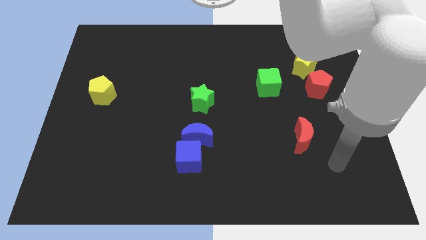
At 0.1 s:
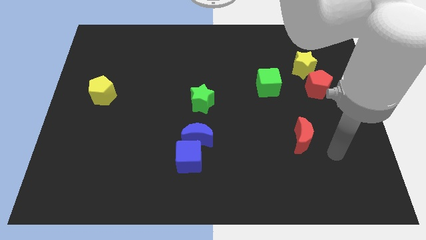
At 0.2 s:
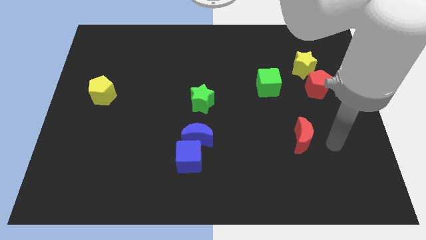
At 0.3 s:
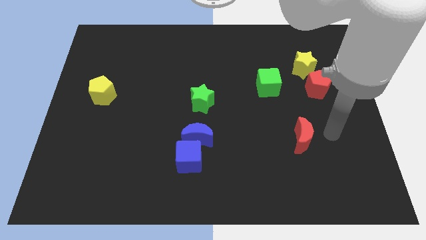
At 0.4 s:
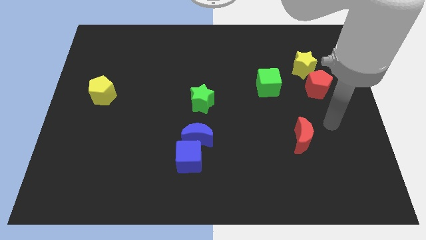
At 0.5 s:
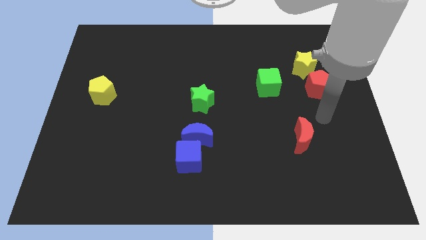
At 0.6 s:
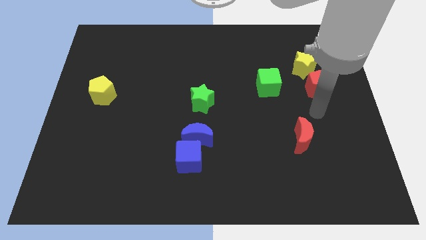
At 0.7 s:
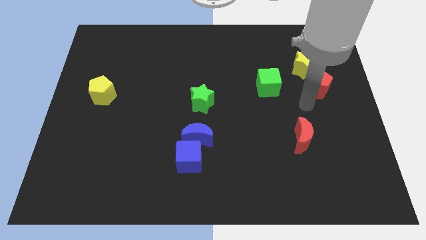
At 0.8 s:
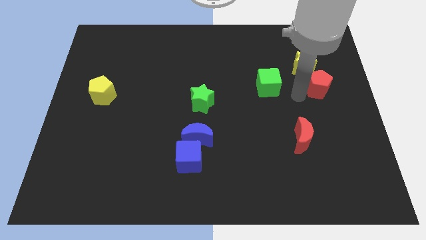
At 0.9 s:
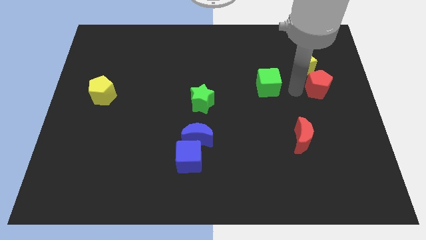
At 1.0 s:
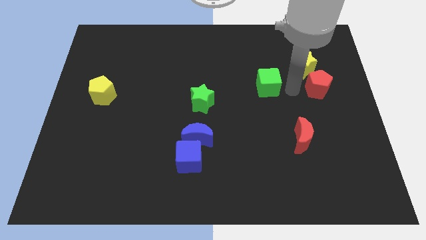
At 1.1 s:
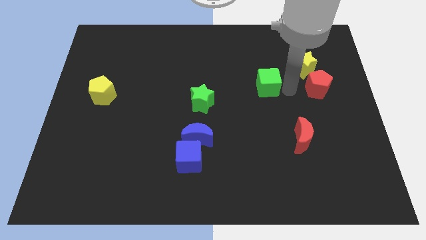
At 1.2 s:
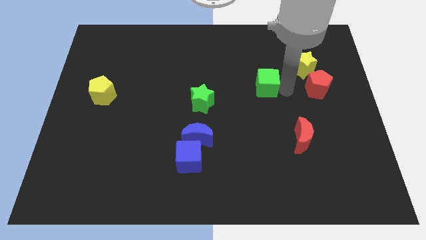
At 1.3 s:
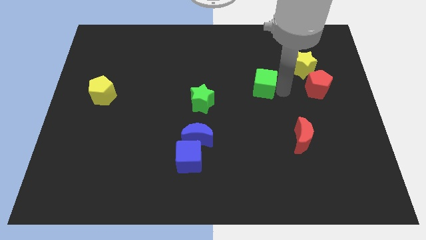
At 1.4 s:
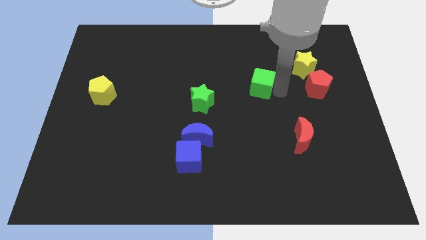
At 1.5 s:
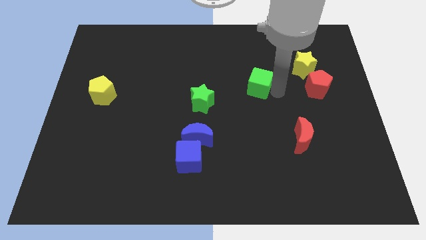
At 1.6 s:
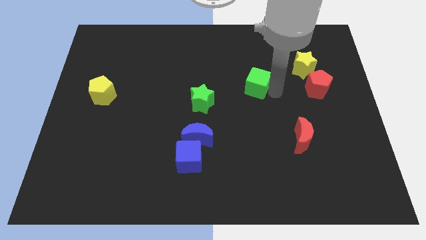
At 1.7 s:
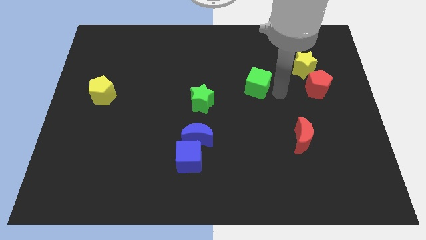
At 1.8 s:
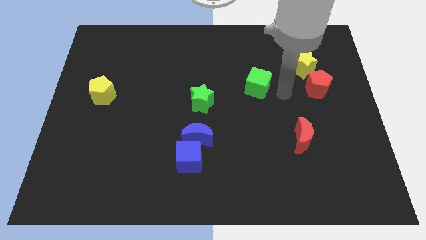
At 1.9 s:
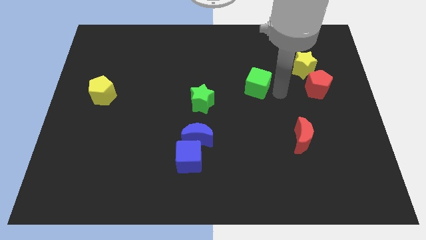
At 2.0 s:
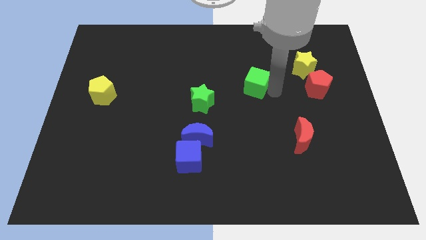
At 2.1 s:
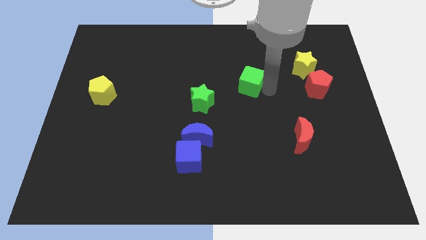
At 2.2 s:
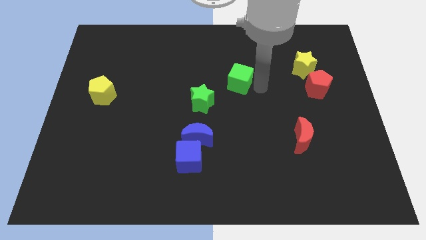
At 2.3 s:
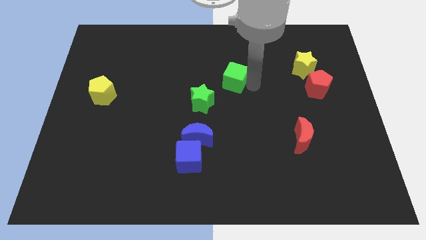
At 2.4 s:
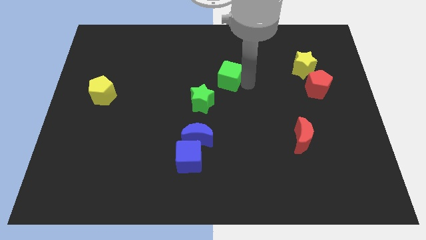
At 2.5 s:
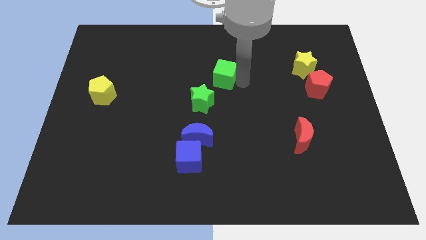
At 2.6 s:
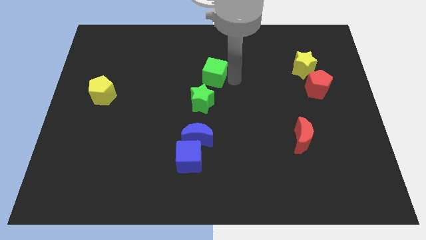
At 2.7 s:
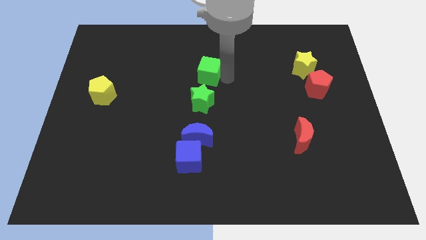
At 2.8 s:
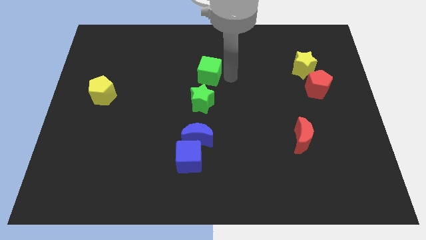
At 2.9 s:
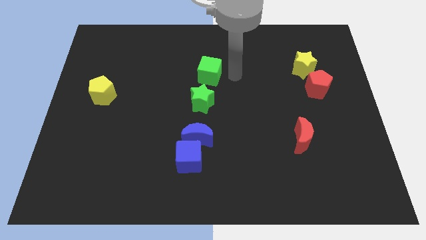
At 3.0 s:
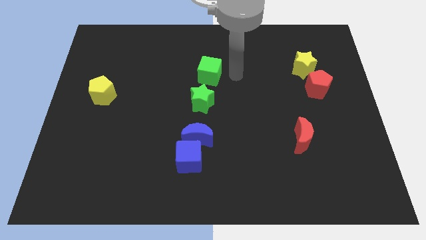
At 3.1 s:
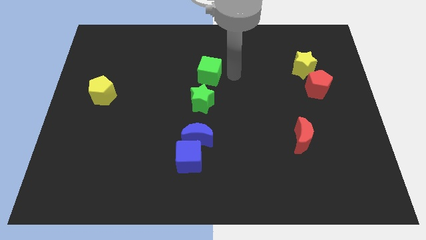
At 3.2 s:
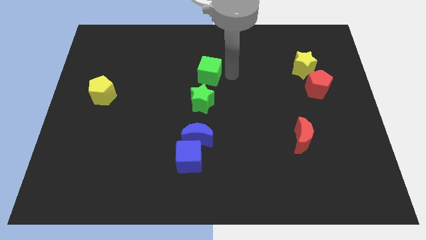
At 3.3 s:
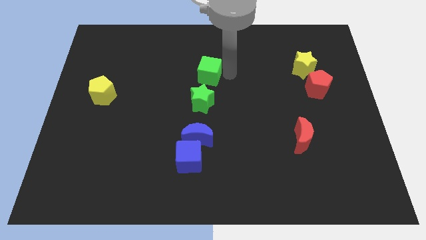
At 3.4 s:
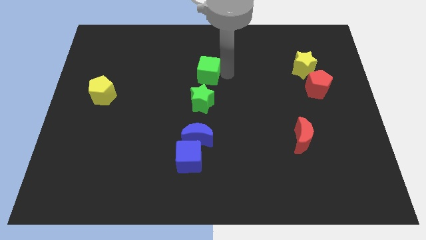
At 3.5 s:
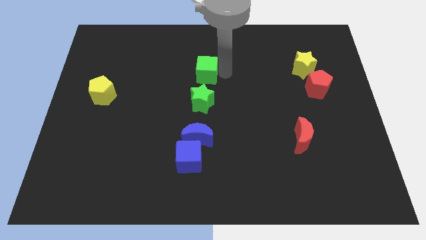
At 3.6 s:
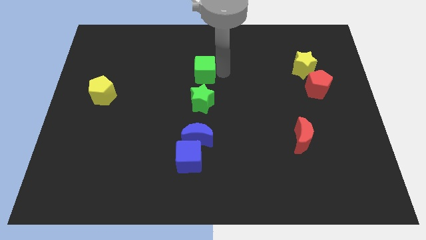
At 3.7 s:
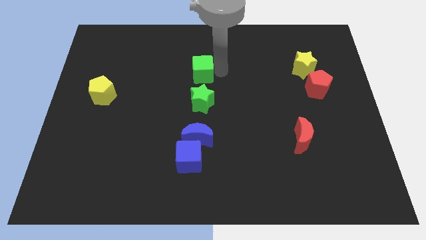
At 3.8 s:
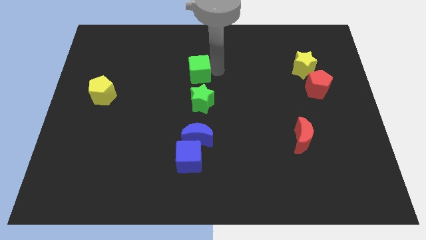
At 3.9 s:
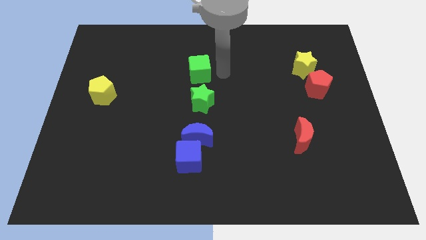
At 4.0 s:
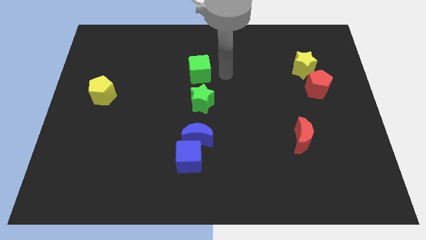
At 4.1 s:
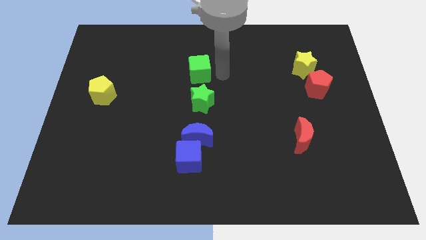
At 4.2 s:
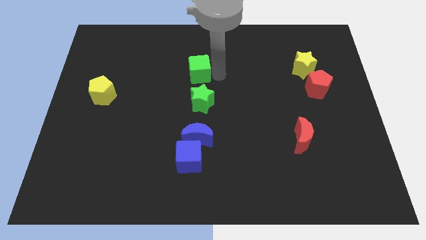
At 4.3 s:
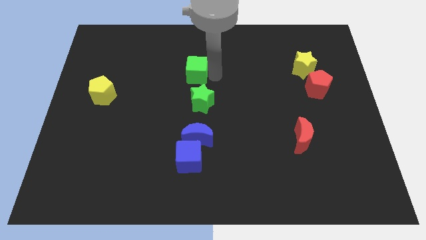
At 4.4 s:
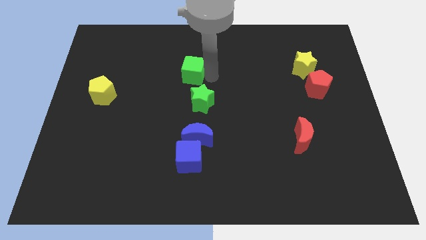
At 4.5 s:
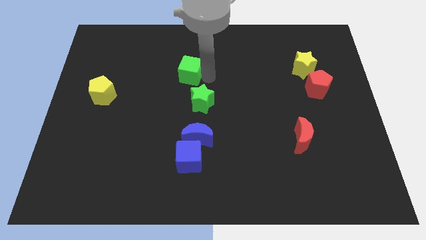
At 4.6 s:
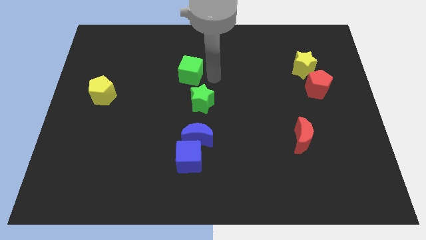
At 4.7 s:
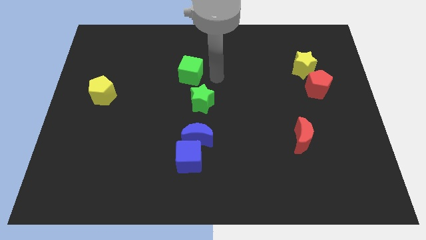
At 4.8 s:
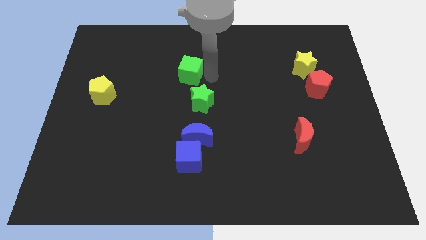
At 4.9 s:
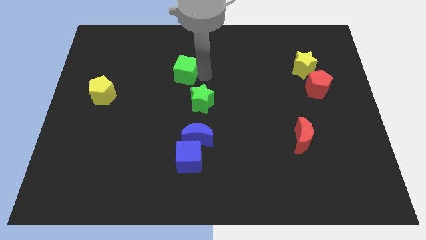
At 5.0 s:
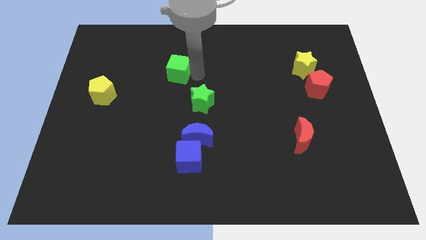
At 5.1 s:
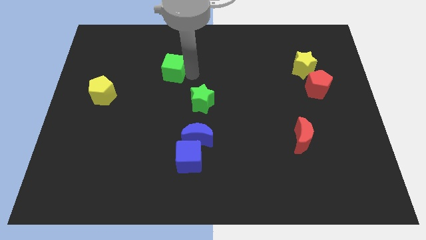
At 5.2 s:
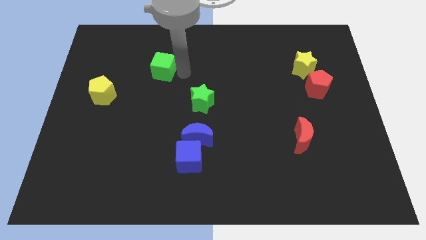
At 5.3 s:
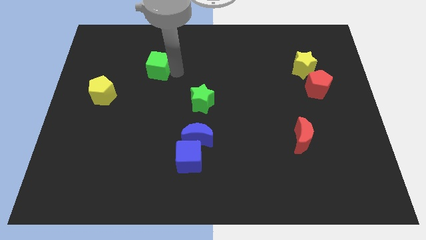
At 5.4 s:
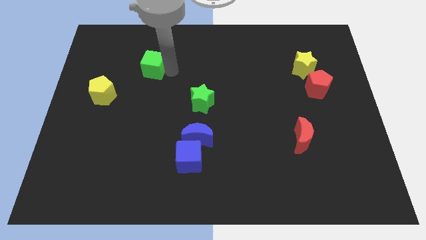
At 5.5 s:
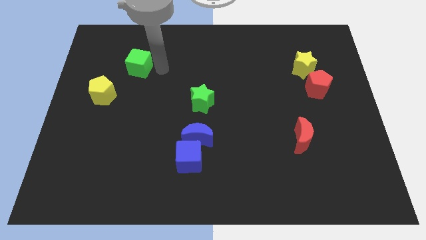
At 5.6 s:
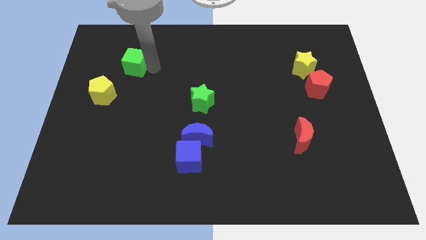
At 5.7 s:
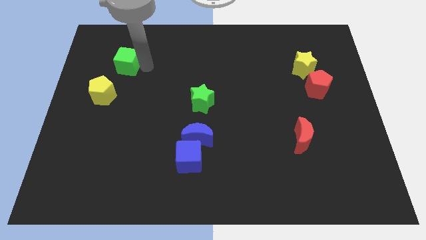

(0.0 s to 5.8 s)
push the green cube to the top of the yellow pentagon

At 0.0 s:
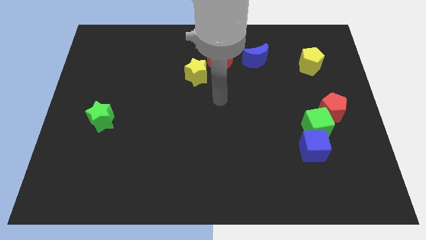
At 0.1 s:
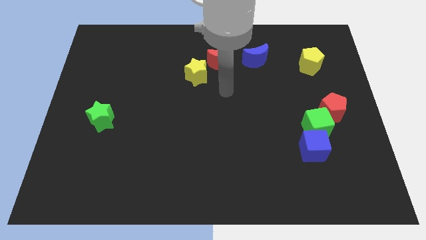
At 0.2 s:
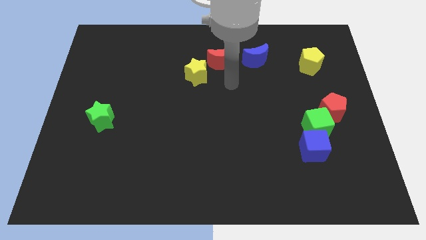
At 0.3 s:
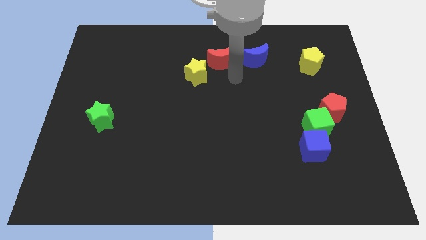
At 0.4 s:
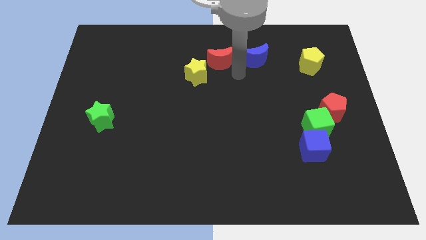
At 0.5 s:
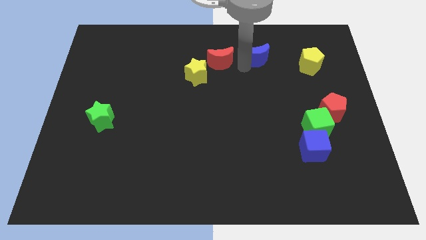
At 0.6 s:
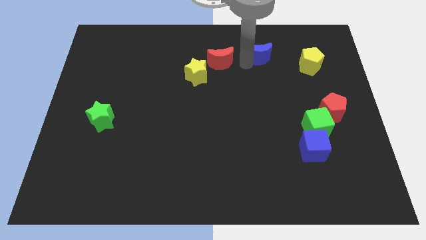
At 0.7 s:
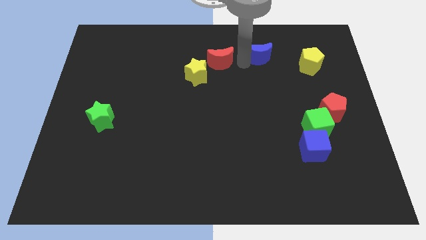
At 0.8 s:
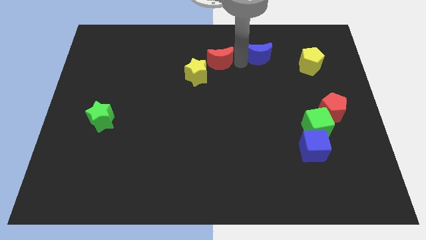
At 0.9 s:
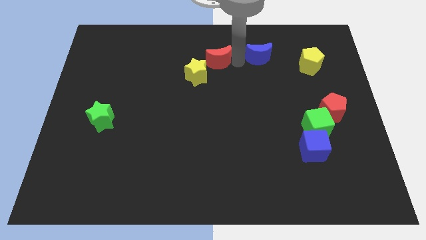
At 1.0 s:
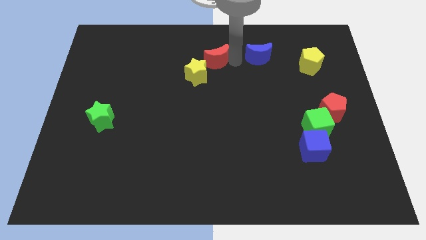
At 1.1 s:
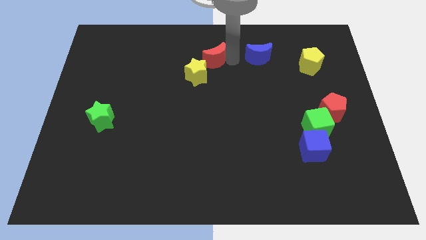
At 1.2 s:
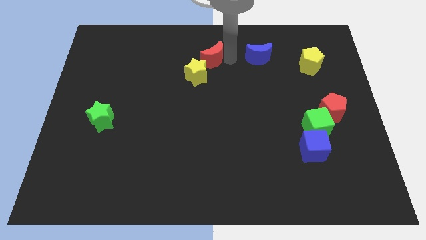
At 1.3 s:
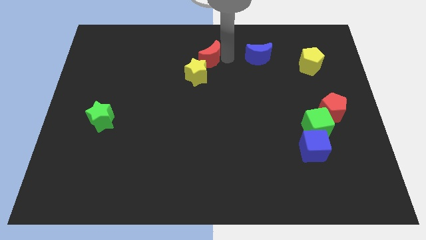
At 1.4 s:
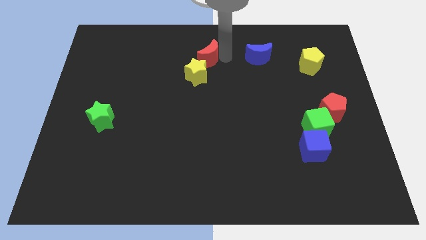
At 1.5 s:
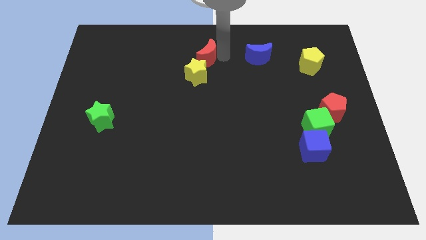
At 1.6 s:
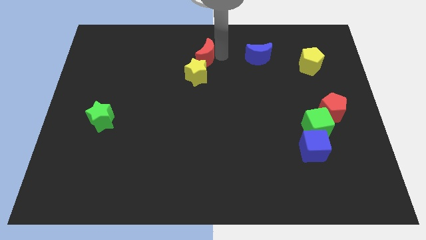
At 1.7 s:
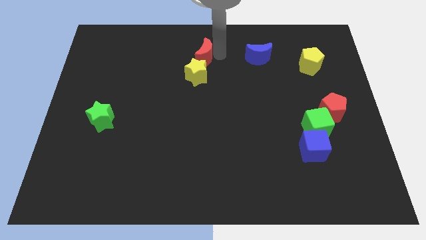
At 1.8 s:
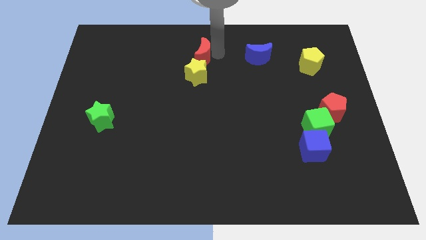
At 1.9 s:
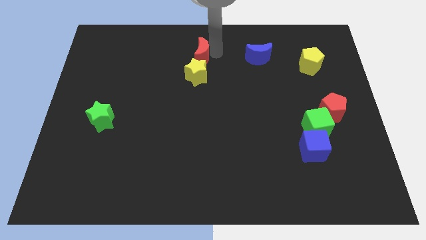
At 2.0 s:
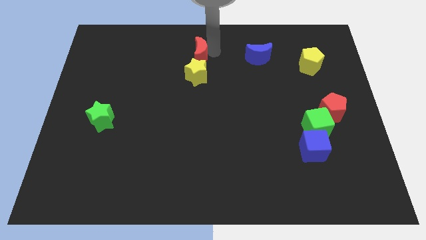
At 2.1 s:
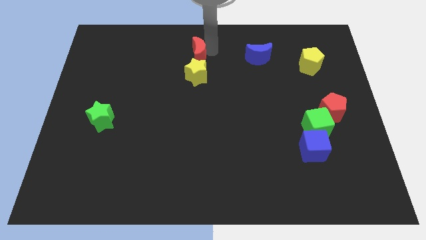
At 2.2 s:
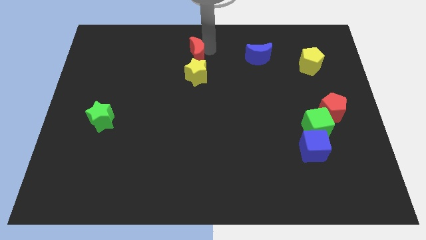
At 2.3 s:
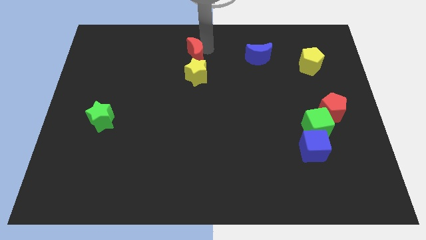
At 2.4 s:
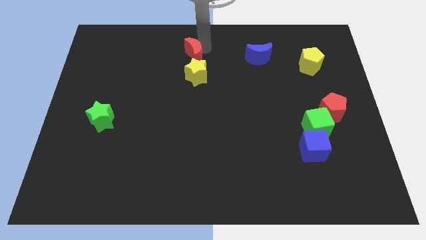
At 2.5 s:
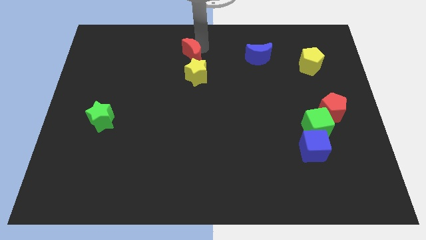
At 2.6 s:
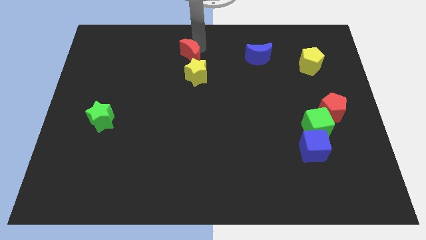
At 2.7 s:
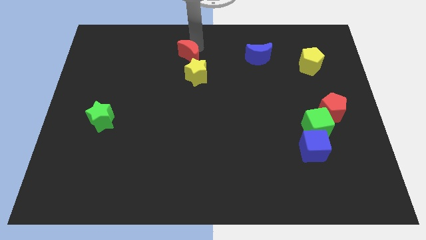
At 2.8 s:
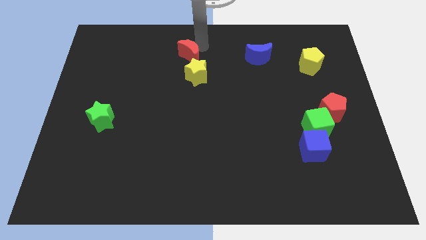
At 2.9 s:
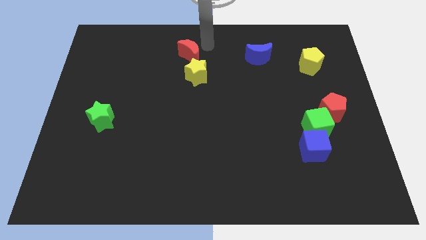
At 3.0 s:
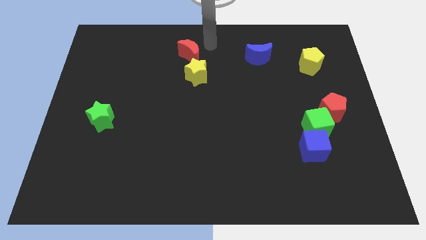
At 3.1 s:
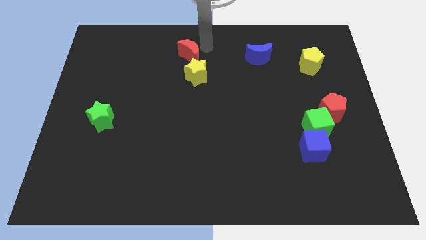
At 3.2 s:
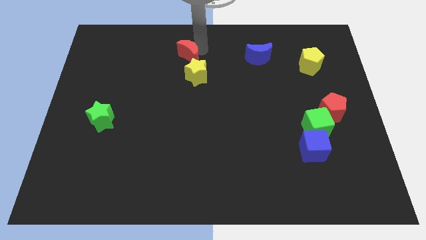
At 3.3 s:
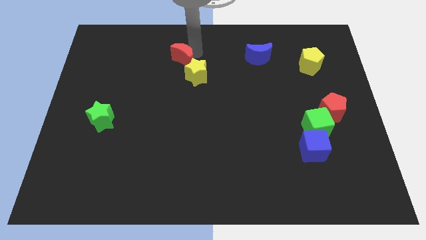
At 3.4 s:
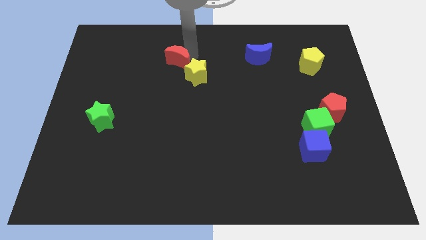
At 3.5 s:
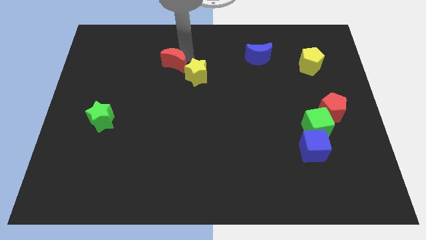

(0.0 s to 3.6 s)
slide the red moon to the left side of the yellow star
